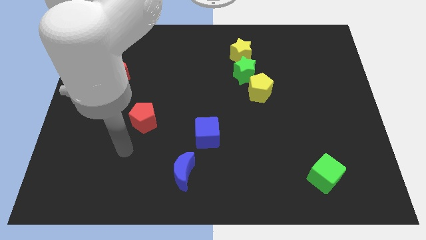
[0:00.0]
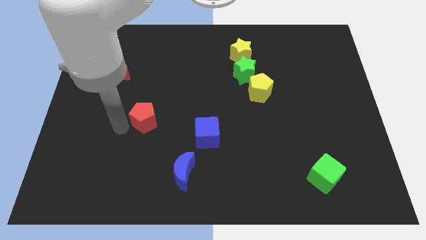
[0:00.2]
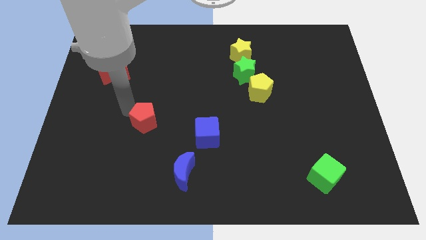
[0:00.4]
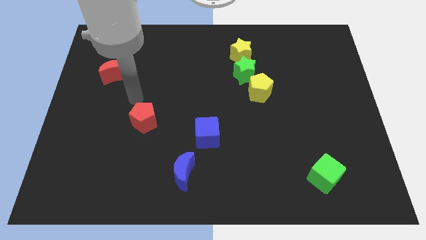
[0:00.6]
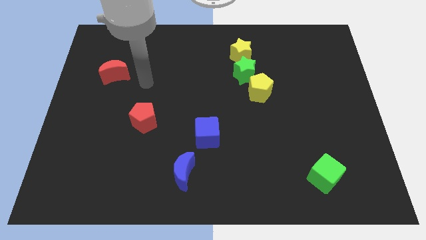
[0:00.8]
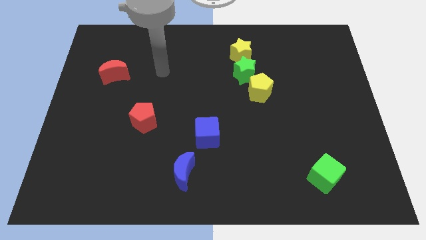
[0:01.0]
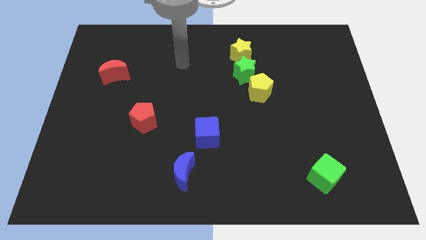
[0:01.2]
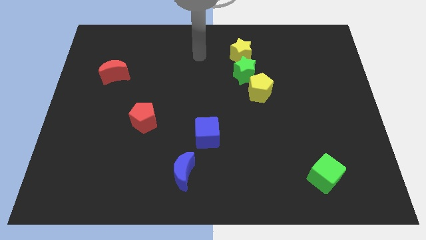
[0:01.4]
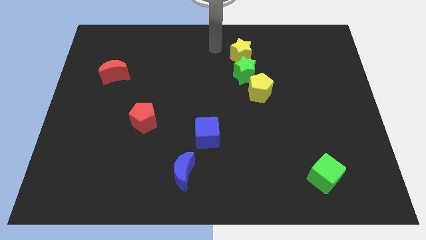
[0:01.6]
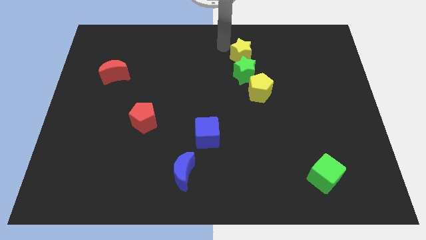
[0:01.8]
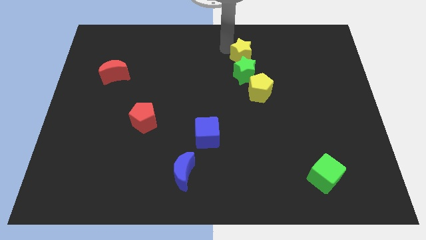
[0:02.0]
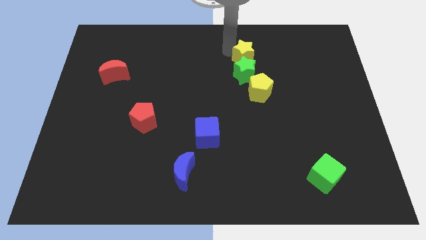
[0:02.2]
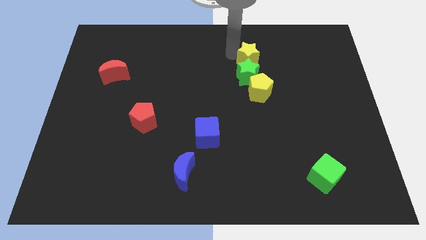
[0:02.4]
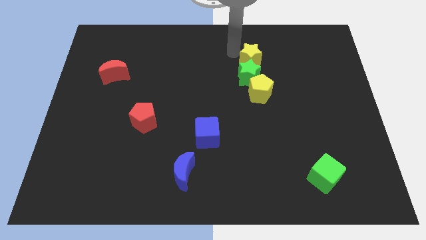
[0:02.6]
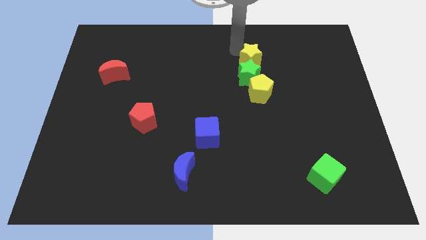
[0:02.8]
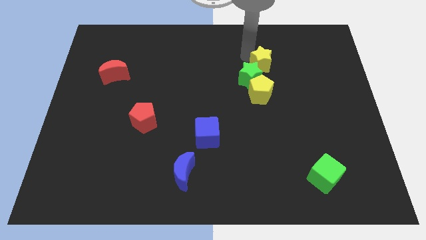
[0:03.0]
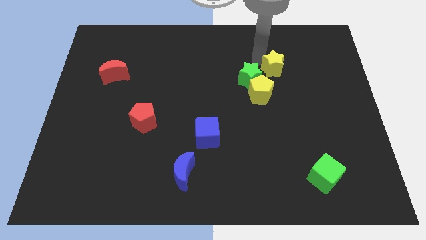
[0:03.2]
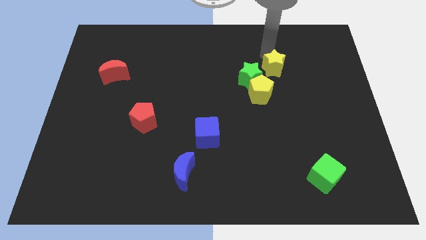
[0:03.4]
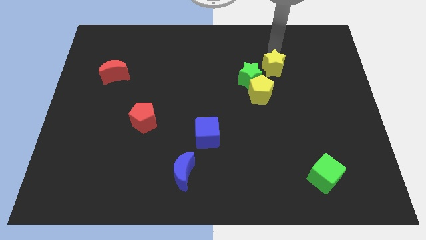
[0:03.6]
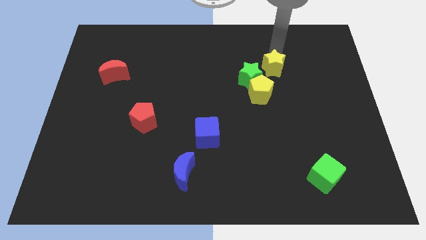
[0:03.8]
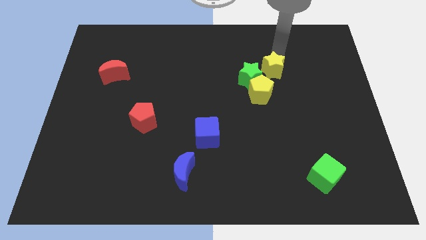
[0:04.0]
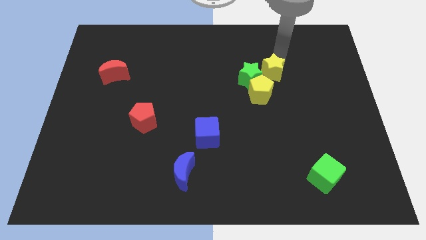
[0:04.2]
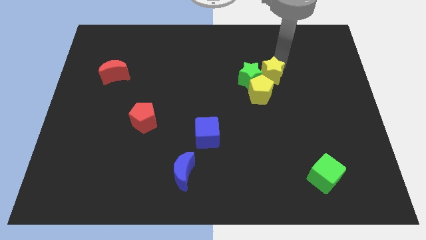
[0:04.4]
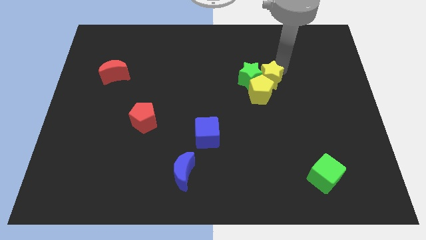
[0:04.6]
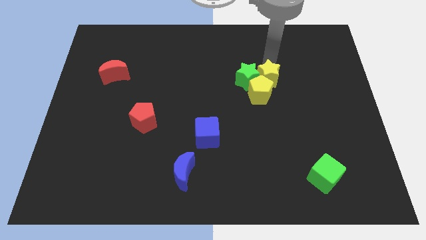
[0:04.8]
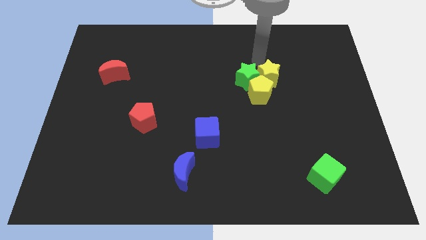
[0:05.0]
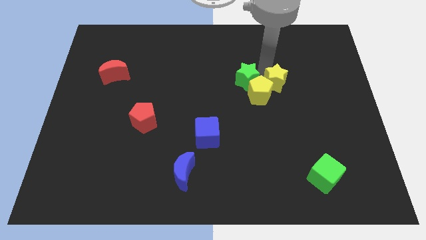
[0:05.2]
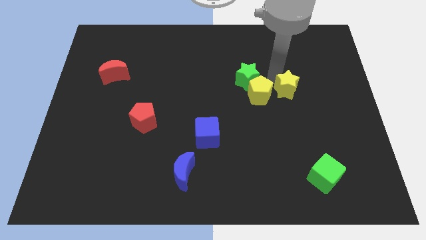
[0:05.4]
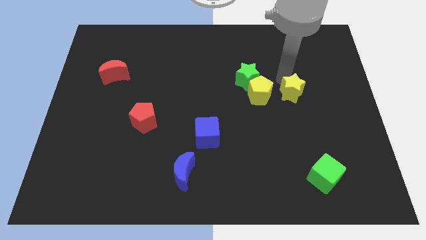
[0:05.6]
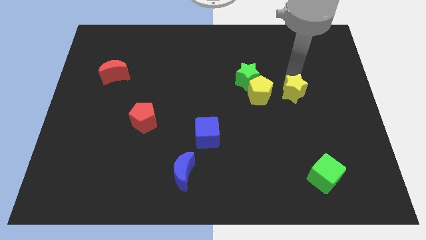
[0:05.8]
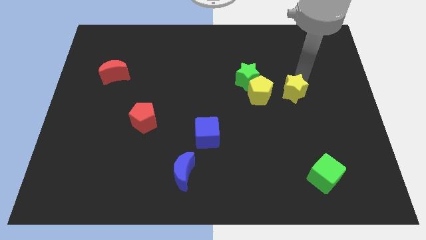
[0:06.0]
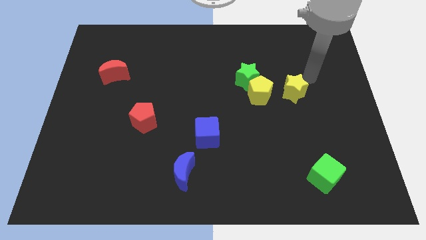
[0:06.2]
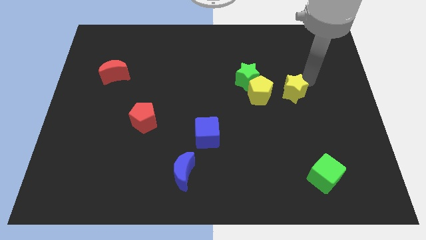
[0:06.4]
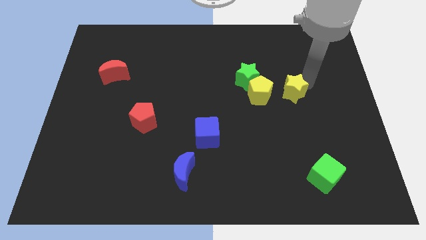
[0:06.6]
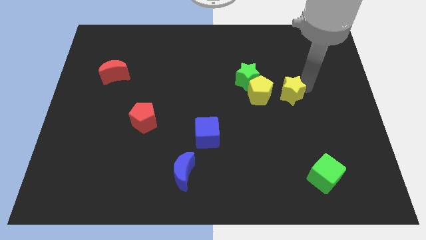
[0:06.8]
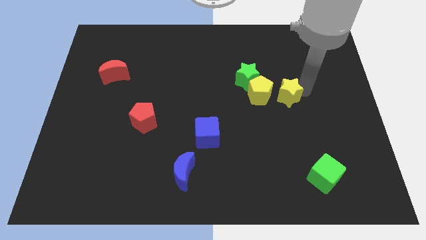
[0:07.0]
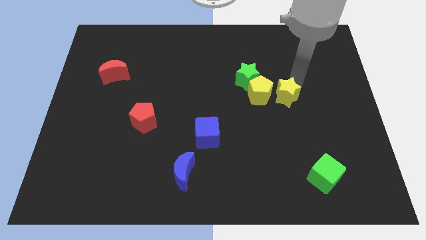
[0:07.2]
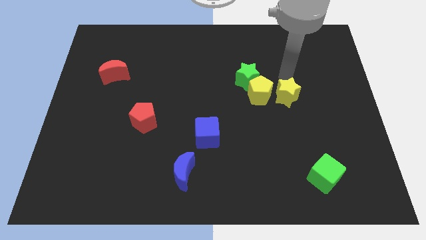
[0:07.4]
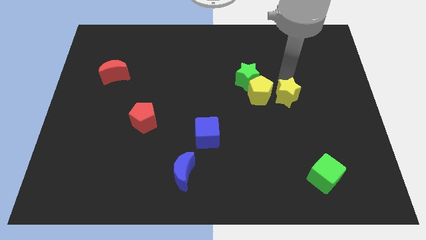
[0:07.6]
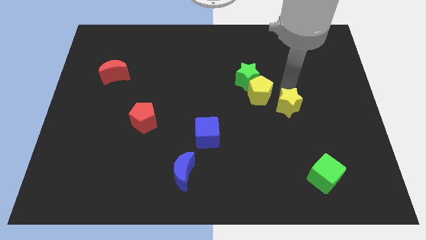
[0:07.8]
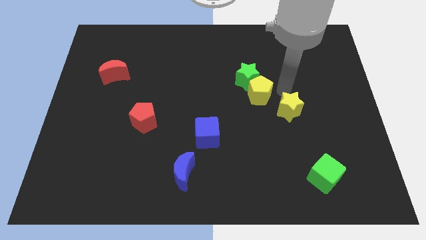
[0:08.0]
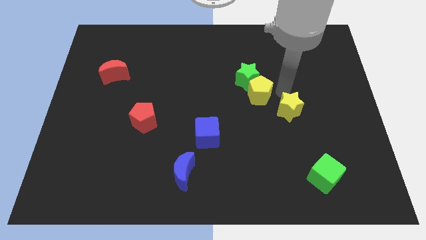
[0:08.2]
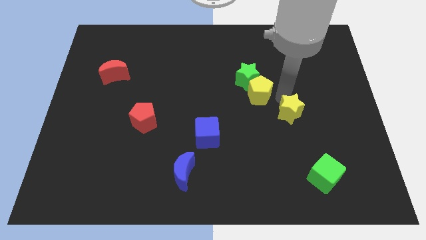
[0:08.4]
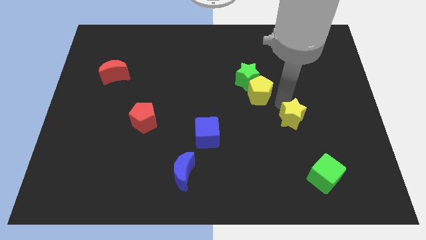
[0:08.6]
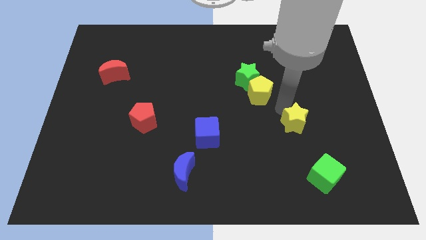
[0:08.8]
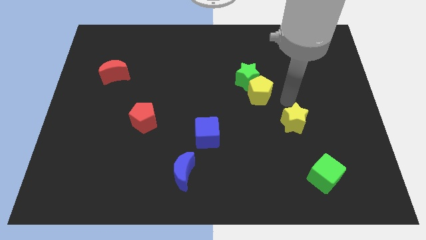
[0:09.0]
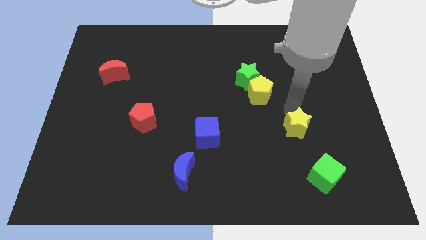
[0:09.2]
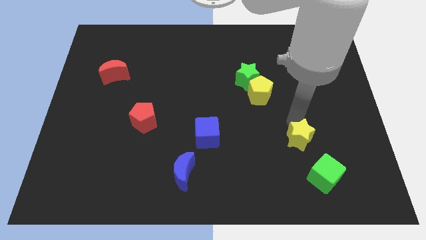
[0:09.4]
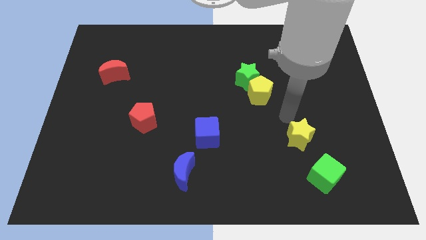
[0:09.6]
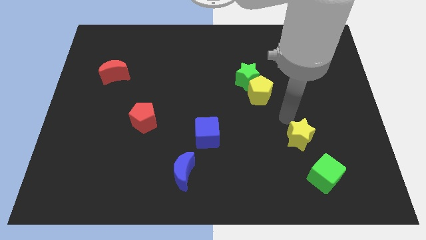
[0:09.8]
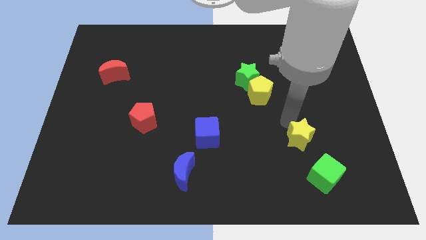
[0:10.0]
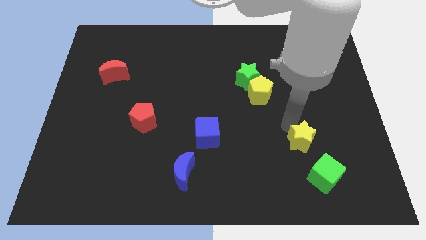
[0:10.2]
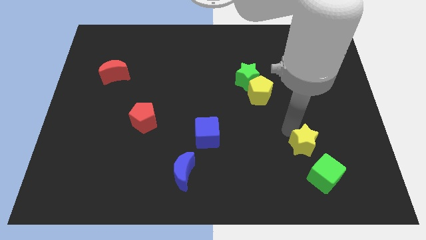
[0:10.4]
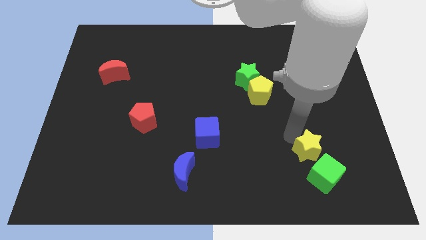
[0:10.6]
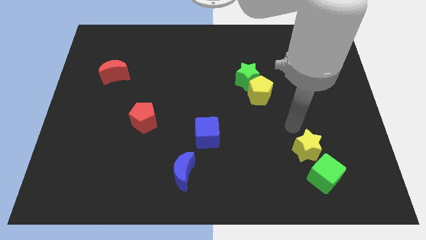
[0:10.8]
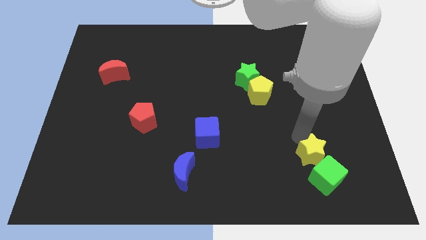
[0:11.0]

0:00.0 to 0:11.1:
move the yellow star towards the green cube

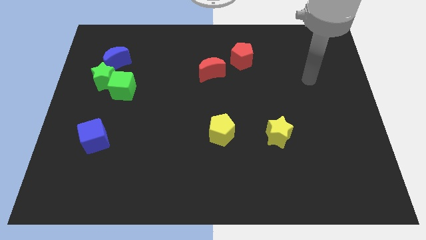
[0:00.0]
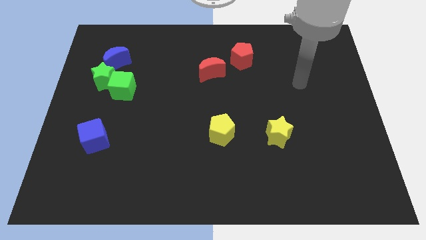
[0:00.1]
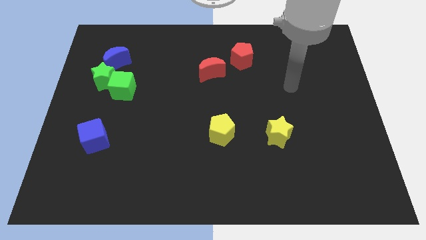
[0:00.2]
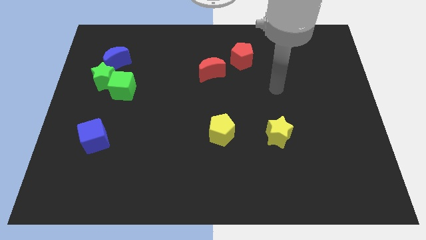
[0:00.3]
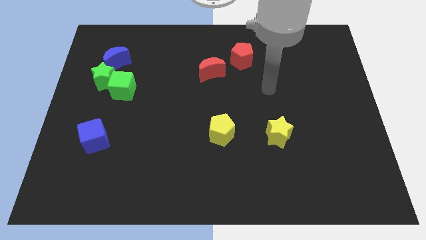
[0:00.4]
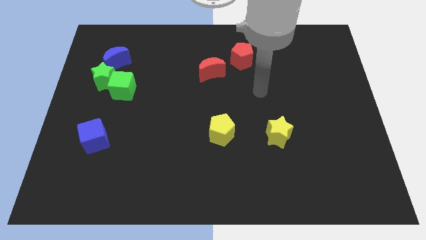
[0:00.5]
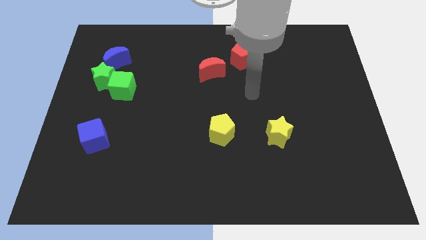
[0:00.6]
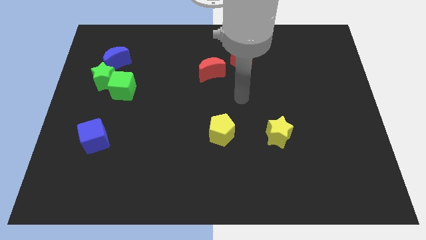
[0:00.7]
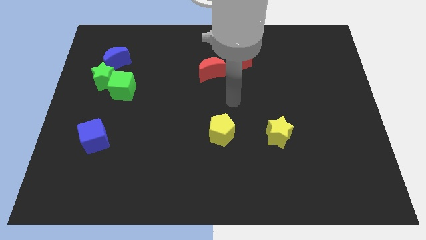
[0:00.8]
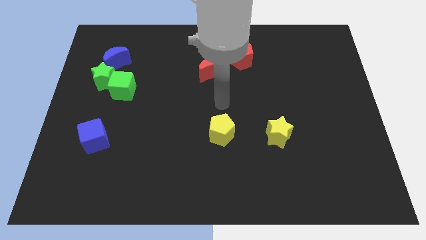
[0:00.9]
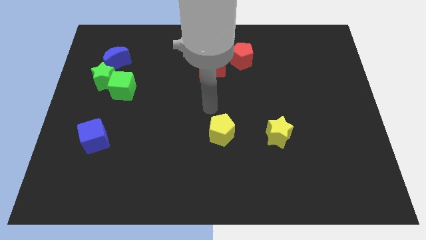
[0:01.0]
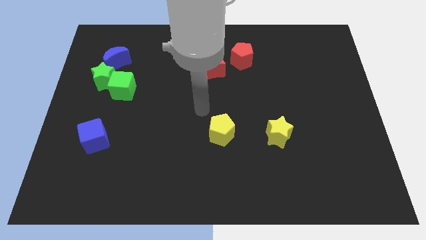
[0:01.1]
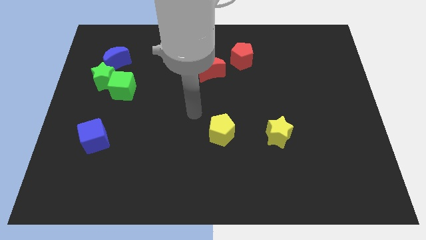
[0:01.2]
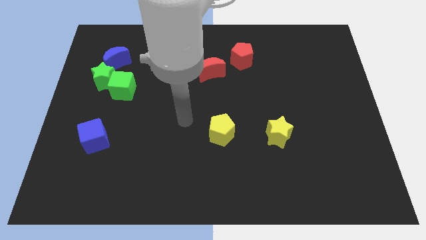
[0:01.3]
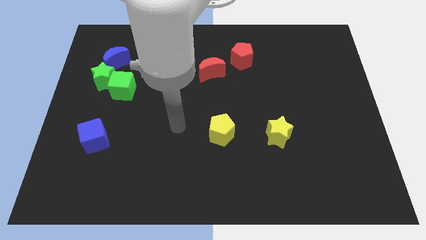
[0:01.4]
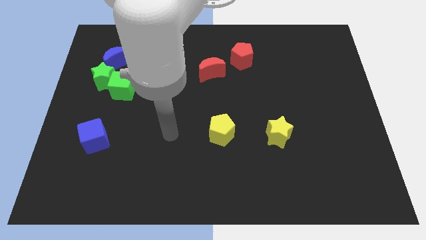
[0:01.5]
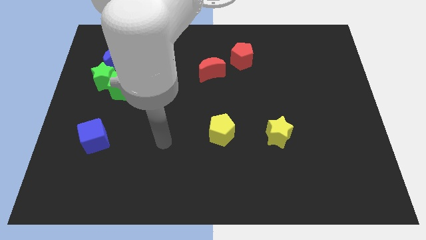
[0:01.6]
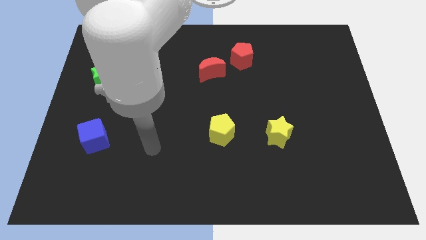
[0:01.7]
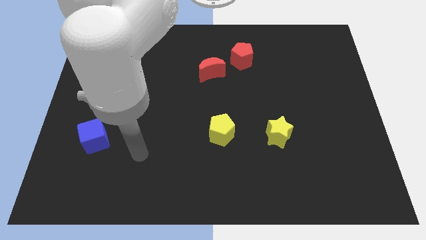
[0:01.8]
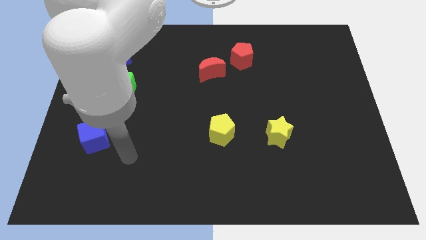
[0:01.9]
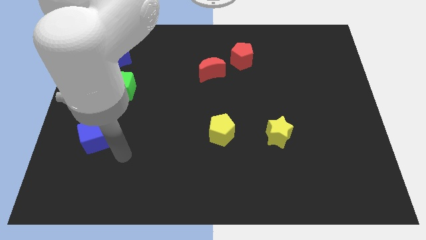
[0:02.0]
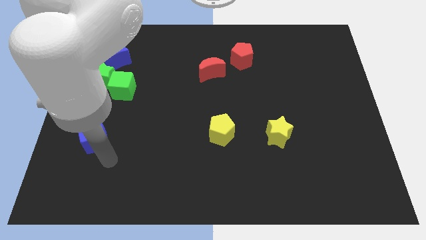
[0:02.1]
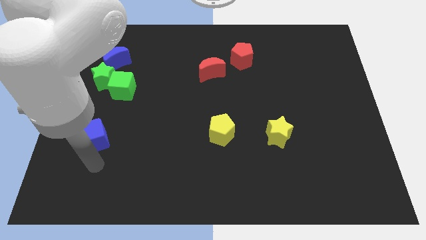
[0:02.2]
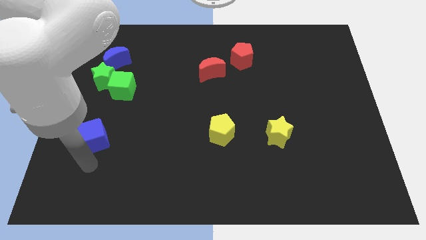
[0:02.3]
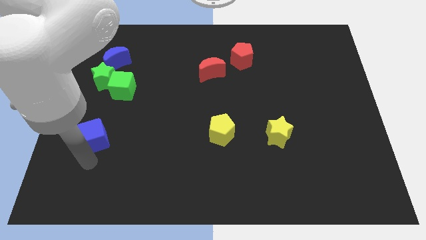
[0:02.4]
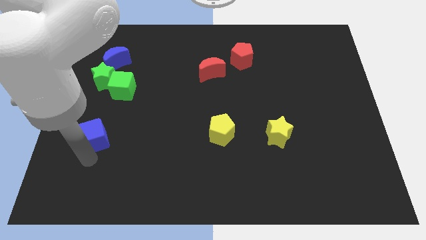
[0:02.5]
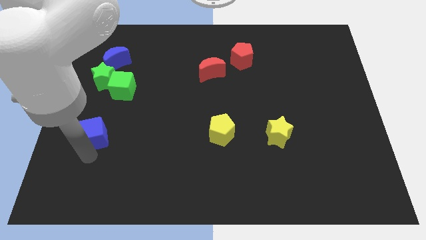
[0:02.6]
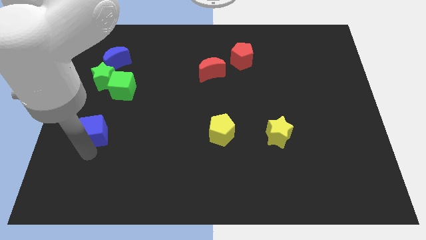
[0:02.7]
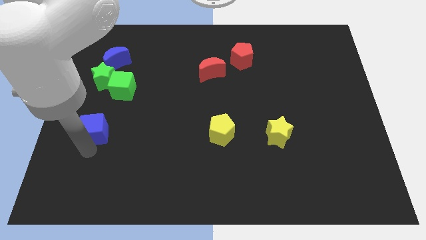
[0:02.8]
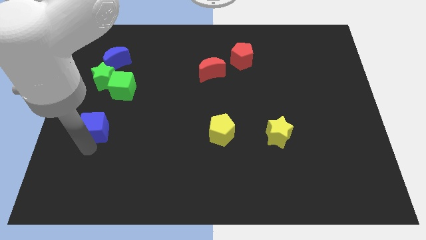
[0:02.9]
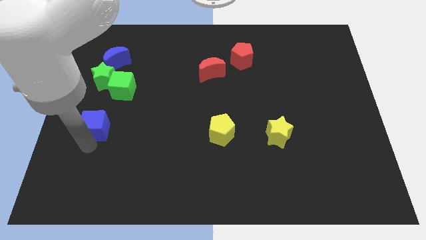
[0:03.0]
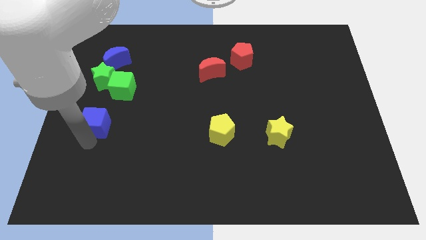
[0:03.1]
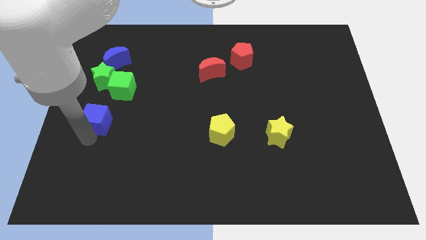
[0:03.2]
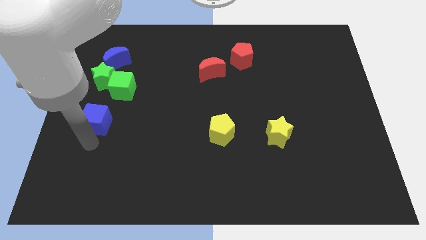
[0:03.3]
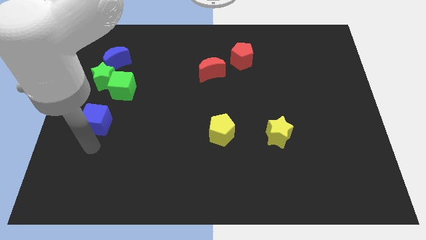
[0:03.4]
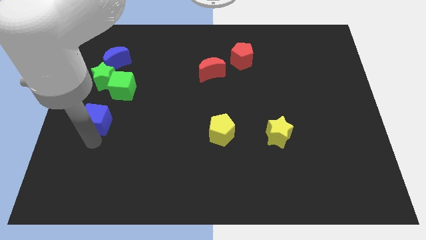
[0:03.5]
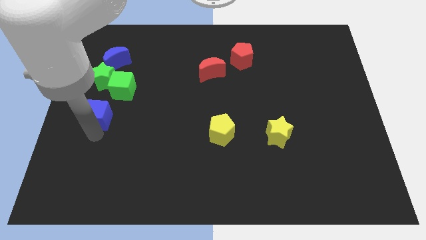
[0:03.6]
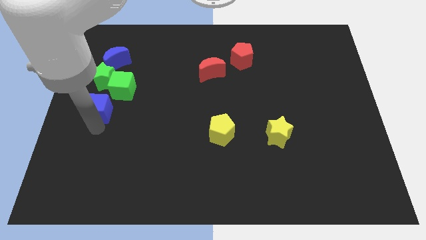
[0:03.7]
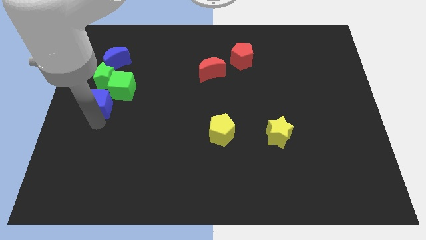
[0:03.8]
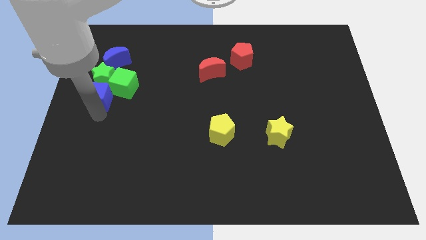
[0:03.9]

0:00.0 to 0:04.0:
put the blue cube next to the green star
